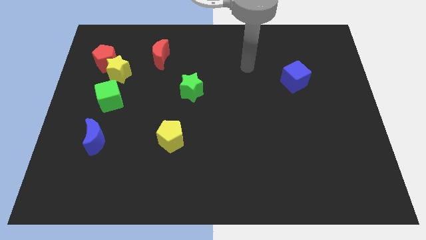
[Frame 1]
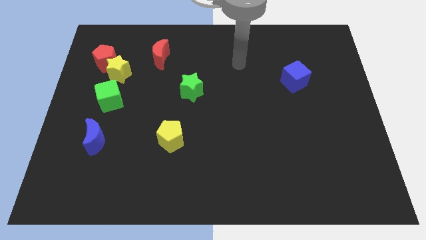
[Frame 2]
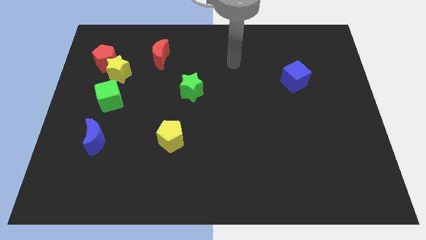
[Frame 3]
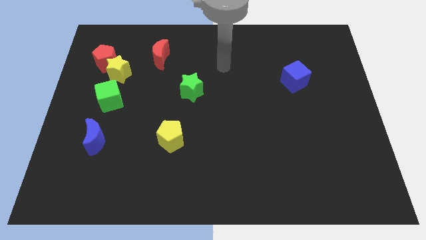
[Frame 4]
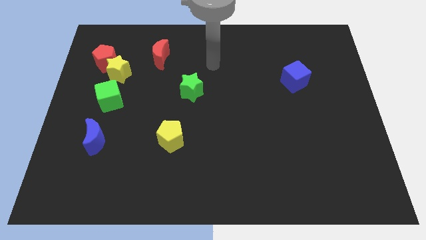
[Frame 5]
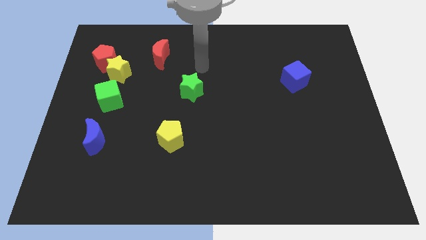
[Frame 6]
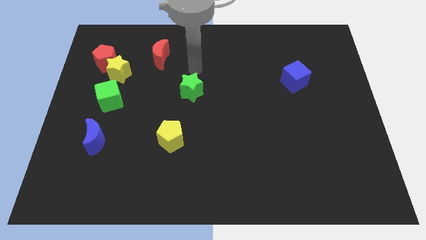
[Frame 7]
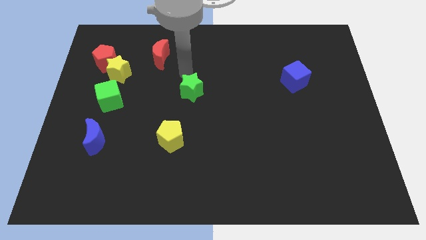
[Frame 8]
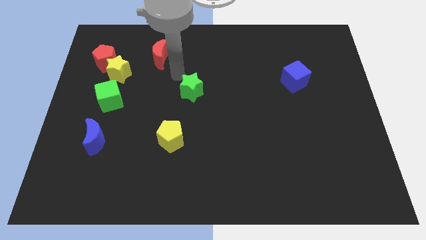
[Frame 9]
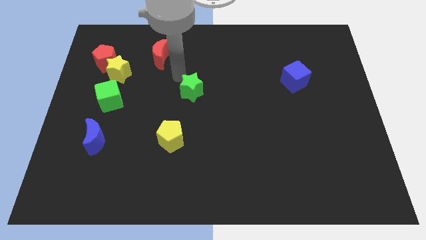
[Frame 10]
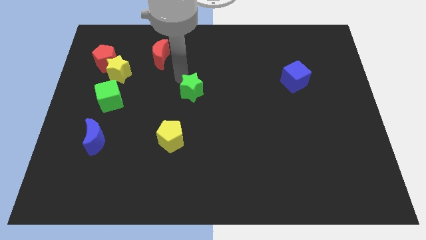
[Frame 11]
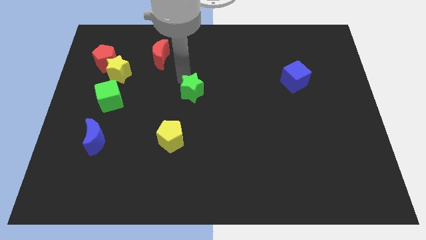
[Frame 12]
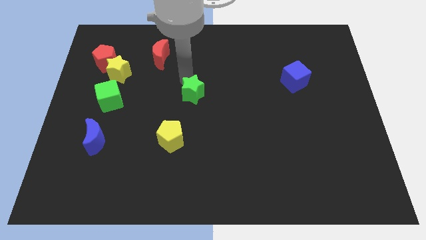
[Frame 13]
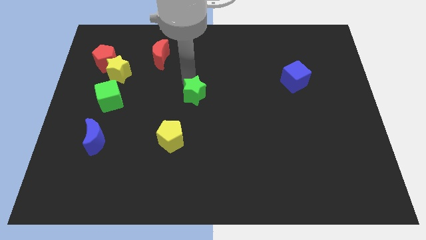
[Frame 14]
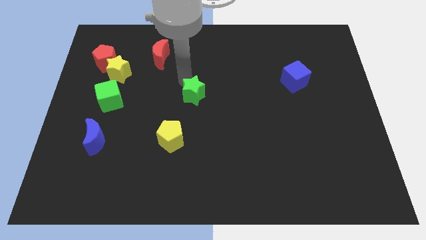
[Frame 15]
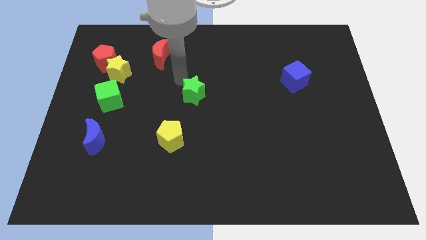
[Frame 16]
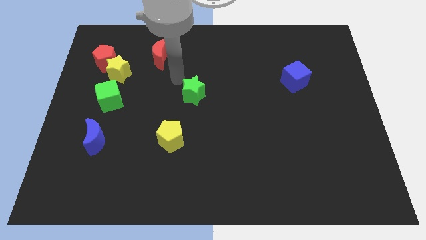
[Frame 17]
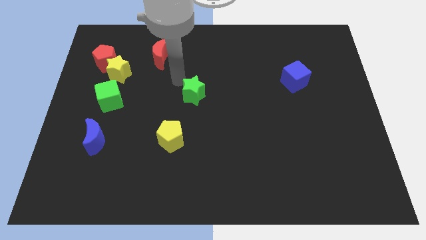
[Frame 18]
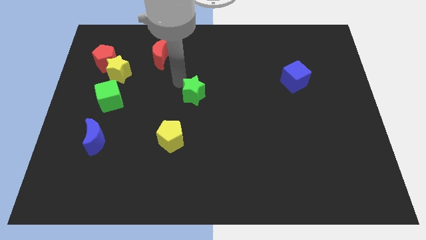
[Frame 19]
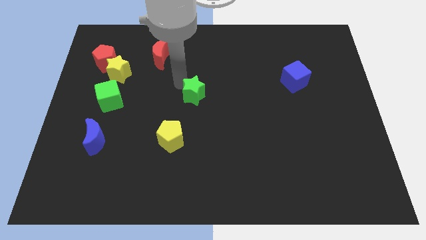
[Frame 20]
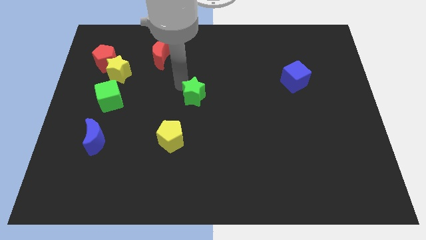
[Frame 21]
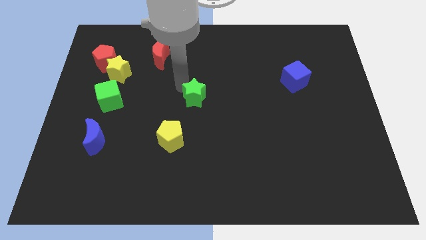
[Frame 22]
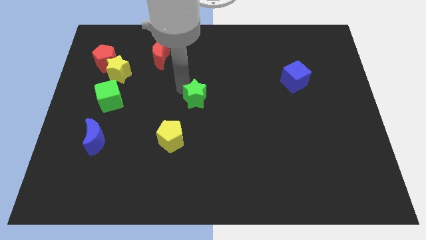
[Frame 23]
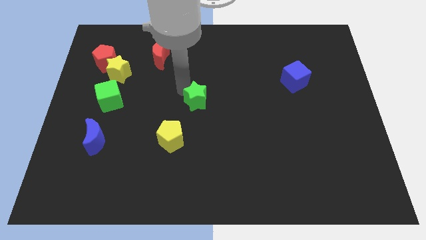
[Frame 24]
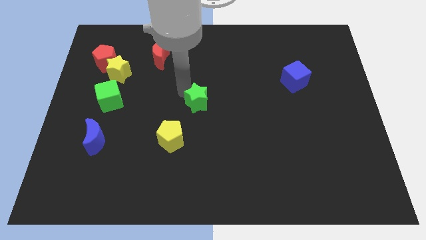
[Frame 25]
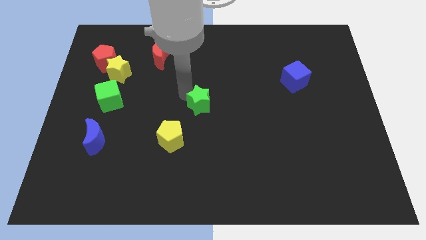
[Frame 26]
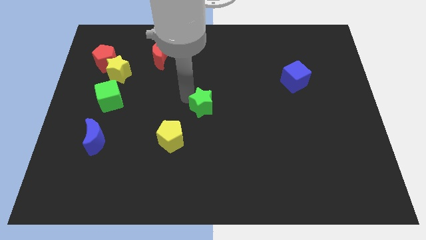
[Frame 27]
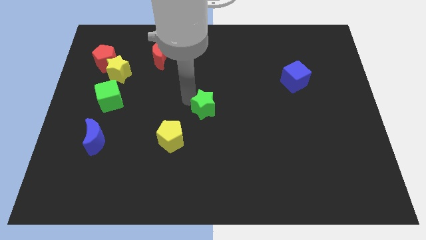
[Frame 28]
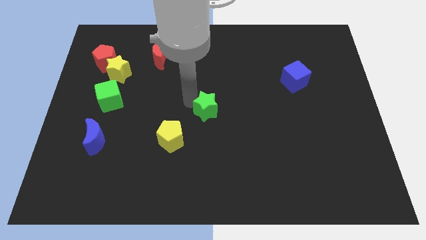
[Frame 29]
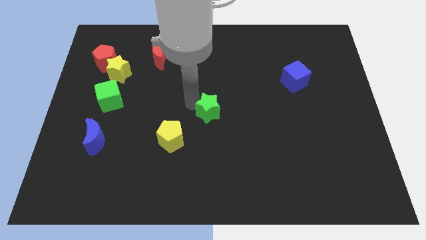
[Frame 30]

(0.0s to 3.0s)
slightly move the green star down and to the right

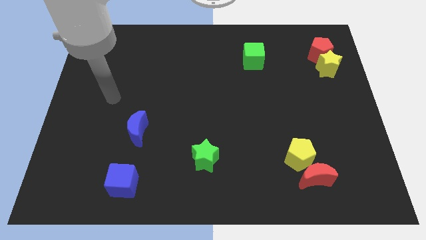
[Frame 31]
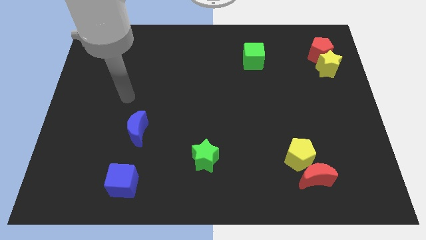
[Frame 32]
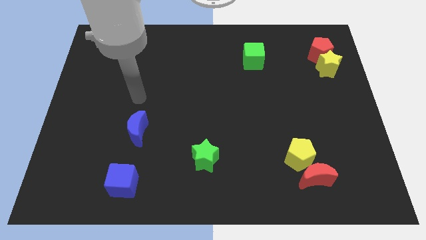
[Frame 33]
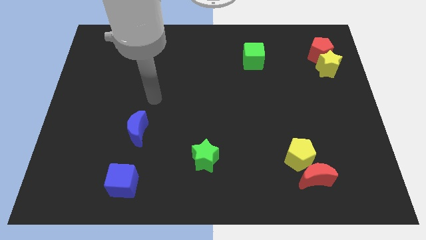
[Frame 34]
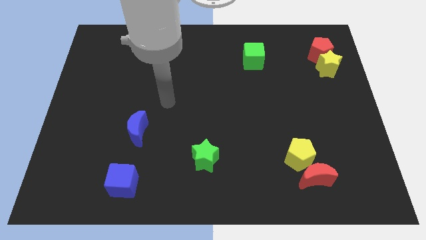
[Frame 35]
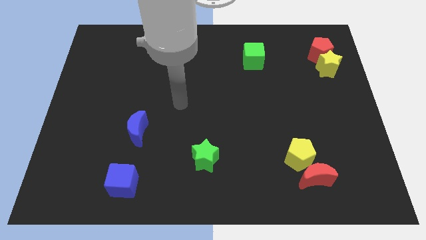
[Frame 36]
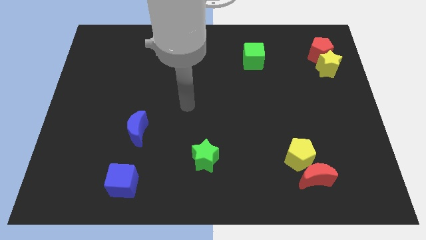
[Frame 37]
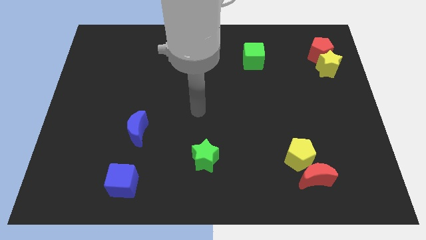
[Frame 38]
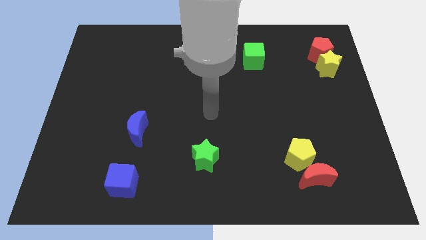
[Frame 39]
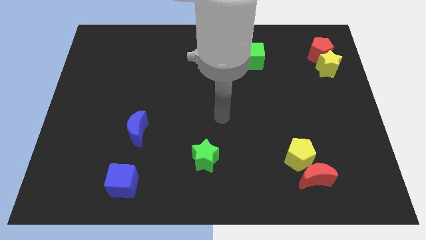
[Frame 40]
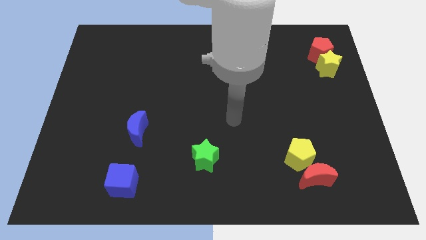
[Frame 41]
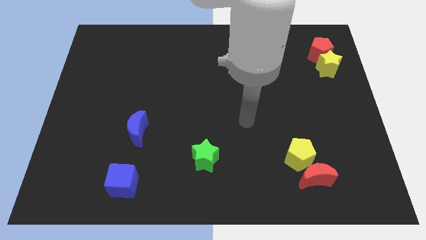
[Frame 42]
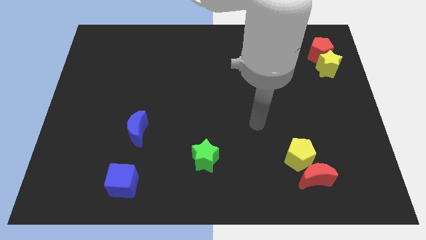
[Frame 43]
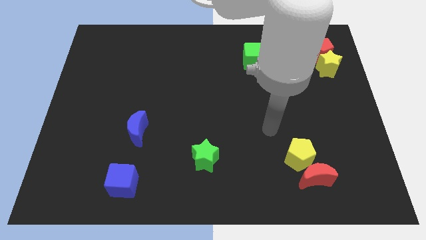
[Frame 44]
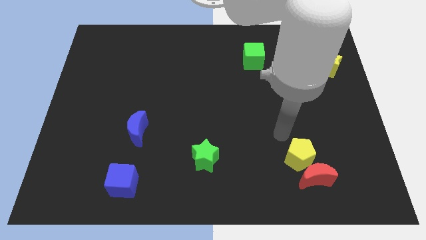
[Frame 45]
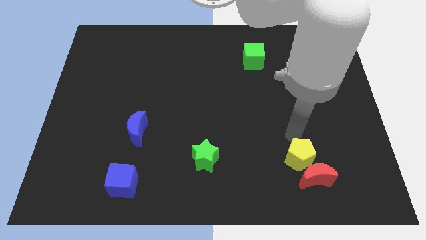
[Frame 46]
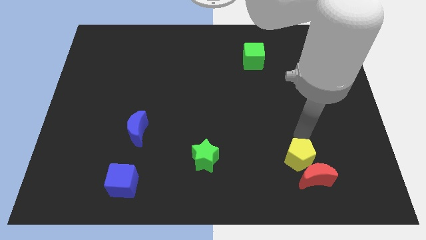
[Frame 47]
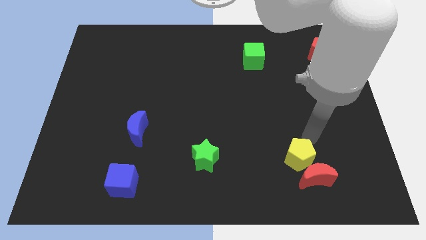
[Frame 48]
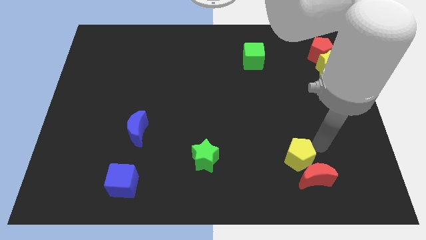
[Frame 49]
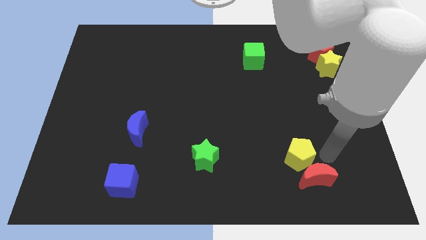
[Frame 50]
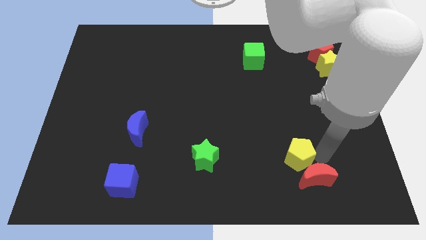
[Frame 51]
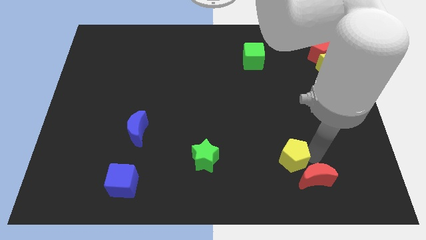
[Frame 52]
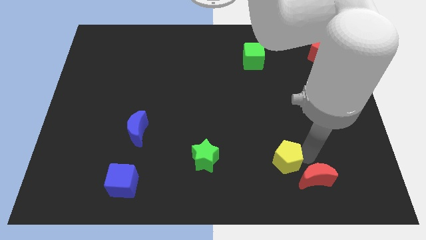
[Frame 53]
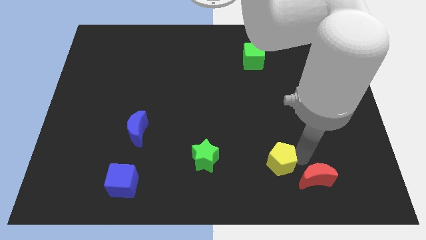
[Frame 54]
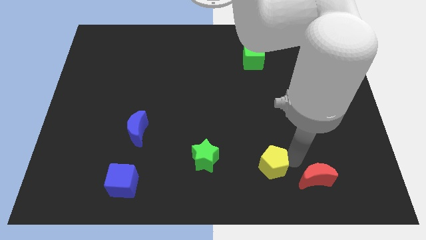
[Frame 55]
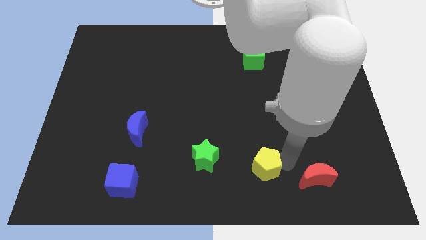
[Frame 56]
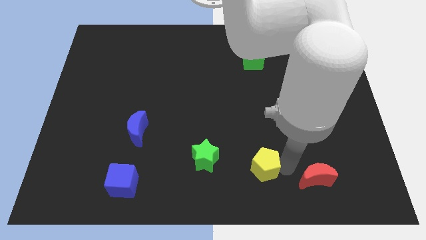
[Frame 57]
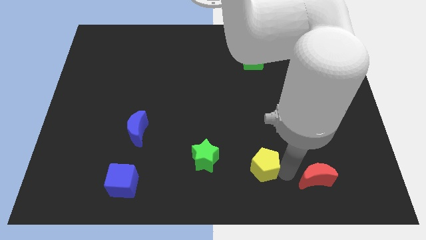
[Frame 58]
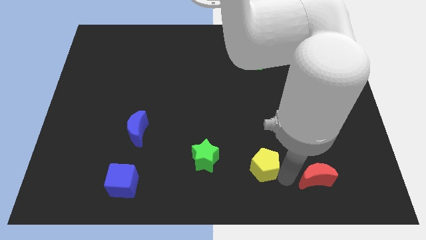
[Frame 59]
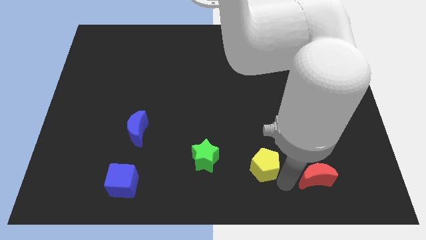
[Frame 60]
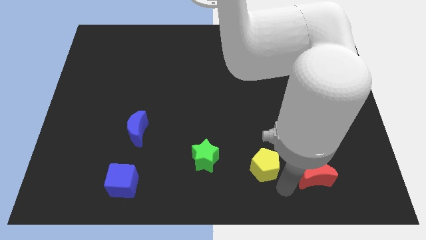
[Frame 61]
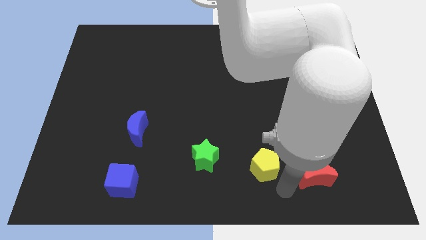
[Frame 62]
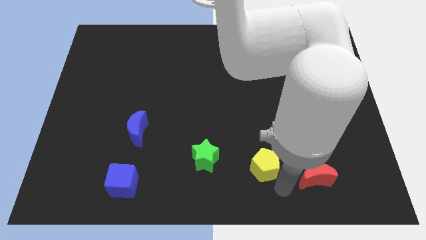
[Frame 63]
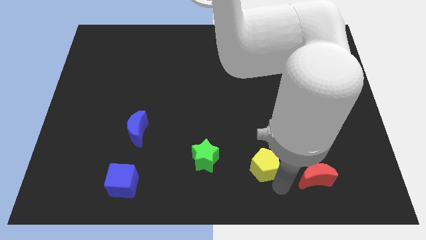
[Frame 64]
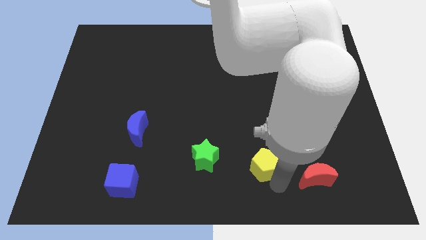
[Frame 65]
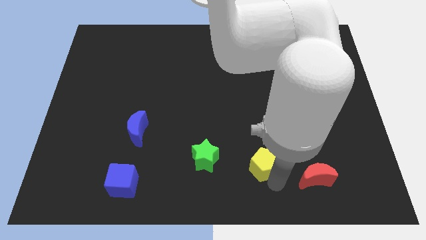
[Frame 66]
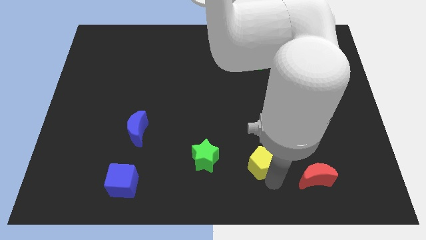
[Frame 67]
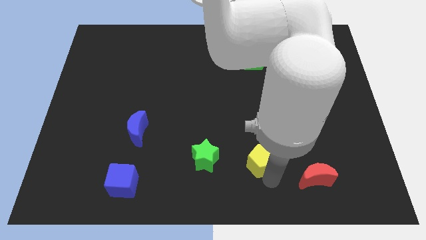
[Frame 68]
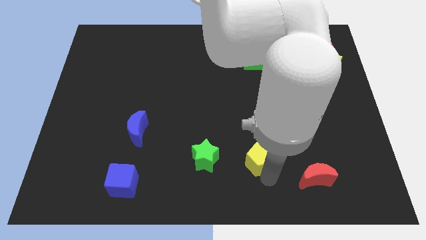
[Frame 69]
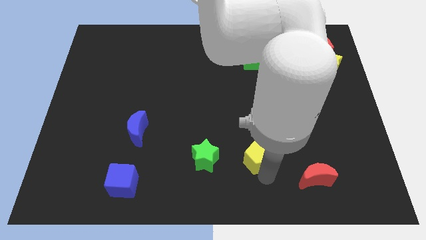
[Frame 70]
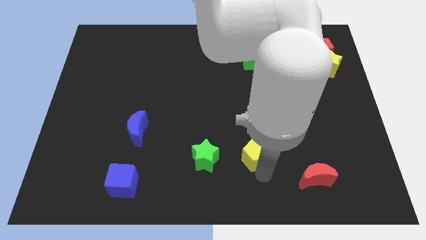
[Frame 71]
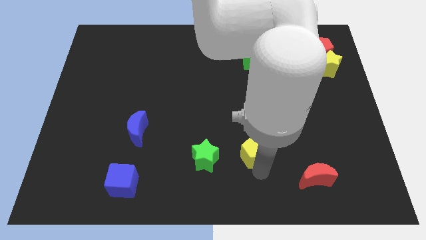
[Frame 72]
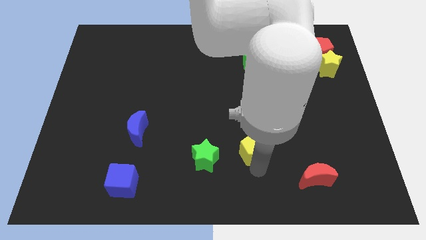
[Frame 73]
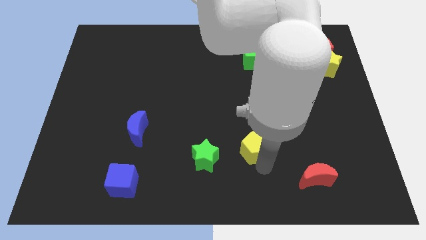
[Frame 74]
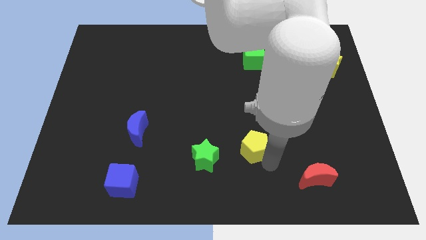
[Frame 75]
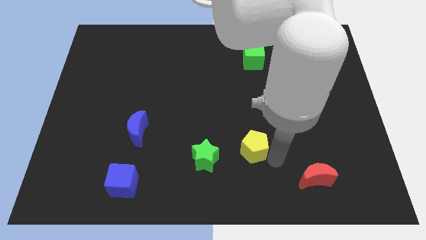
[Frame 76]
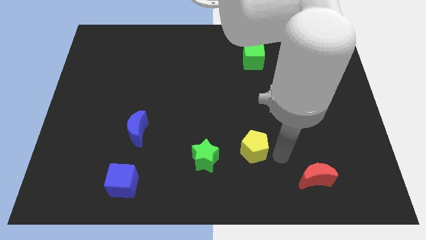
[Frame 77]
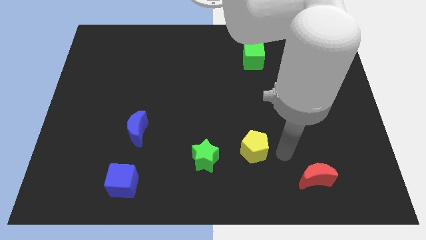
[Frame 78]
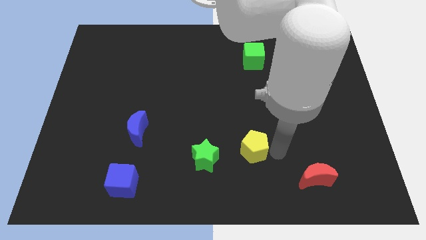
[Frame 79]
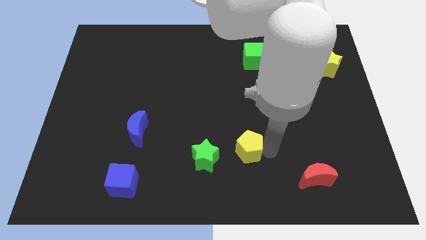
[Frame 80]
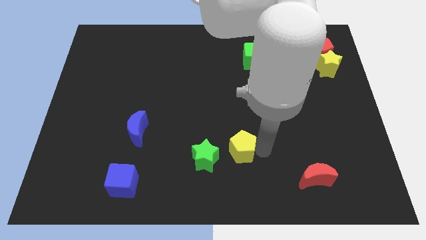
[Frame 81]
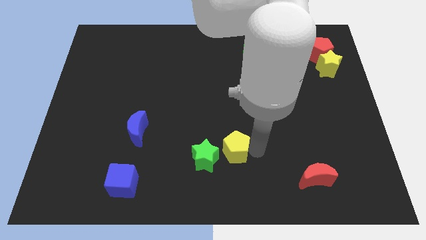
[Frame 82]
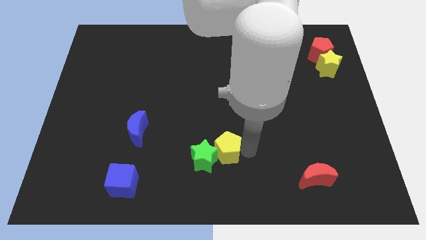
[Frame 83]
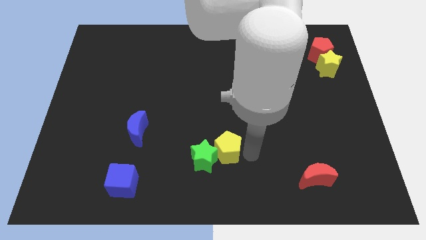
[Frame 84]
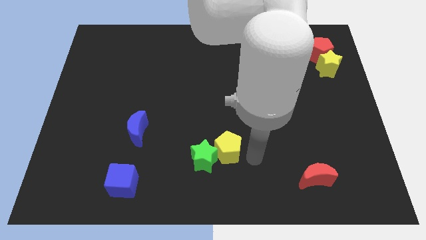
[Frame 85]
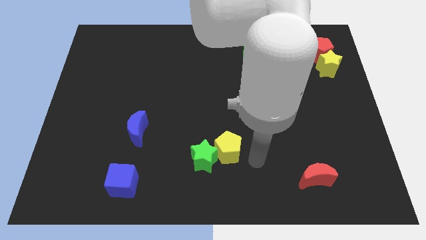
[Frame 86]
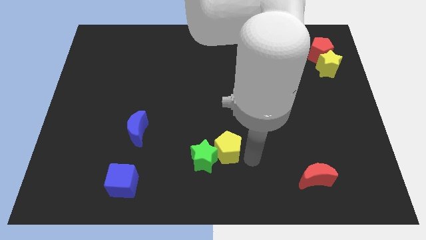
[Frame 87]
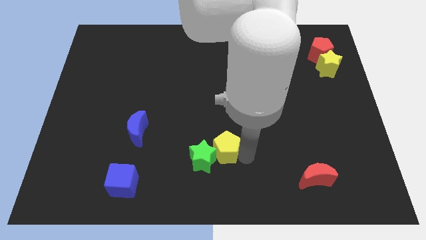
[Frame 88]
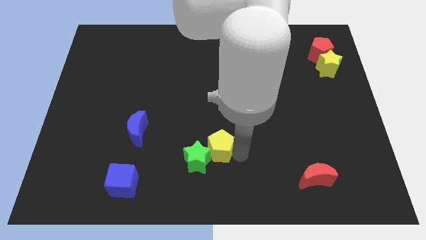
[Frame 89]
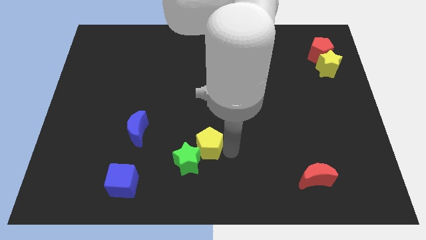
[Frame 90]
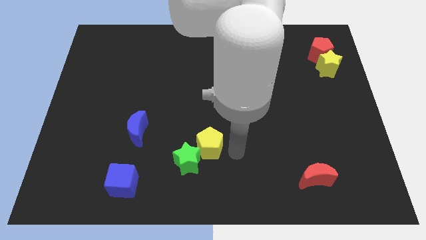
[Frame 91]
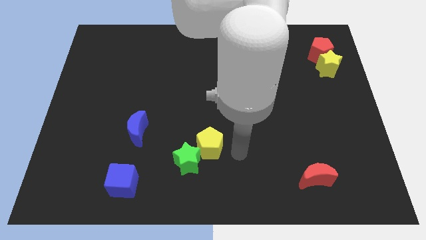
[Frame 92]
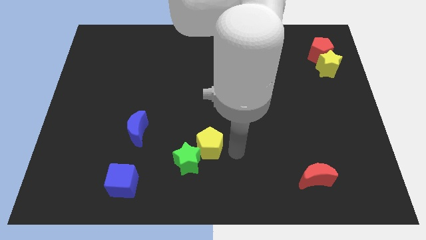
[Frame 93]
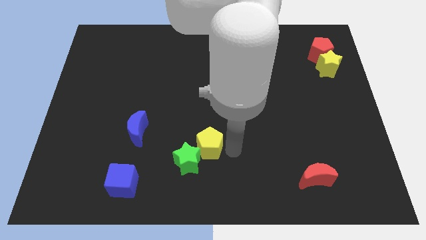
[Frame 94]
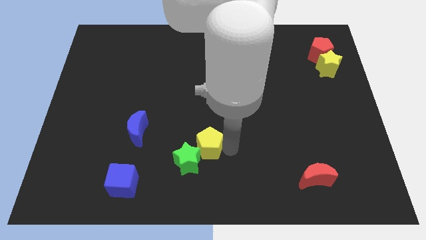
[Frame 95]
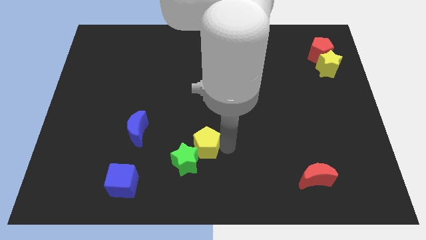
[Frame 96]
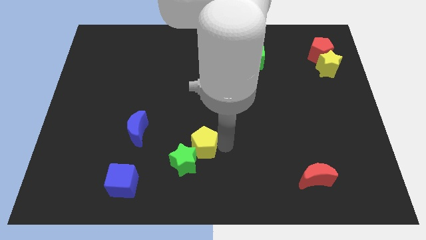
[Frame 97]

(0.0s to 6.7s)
slide the yellow pentagon to the left
